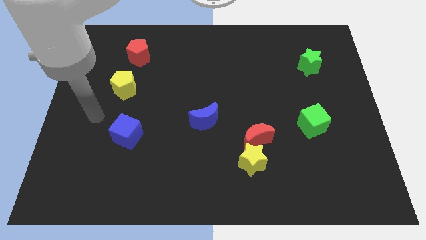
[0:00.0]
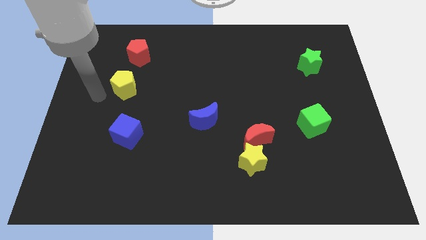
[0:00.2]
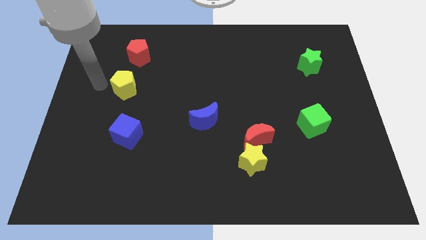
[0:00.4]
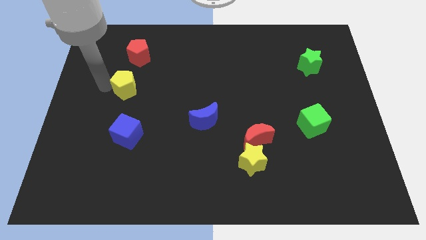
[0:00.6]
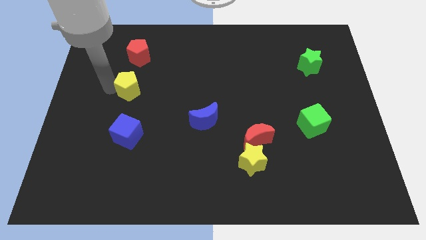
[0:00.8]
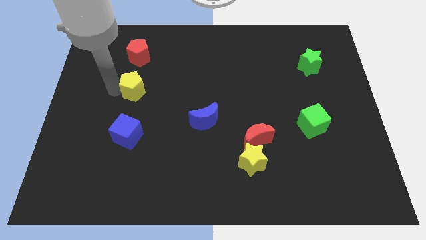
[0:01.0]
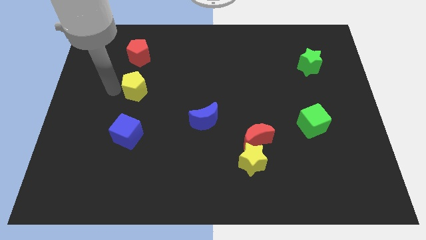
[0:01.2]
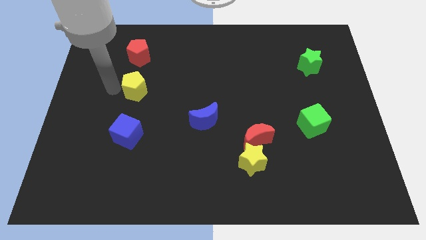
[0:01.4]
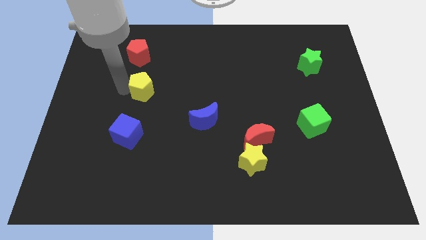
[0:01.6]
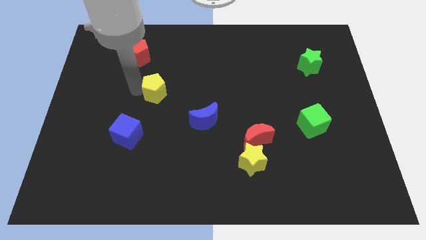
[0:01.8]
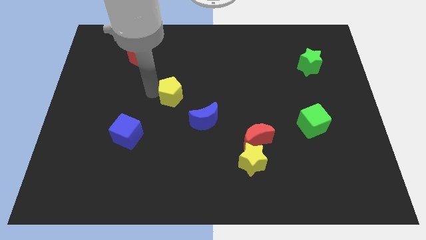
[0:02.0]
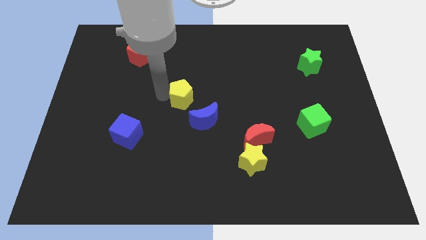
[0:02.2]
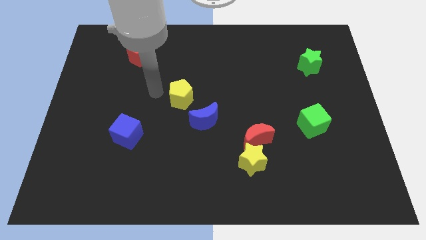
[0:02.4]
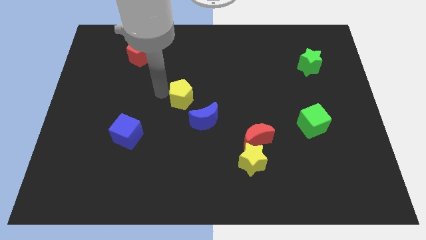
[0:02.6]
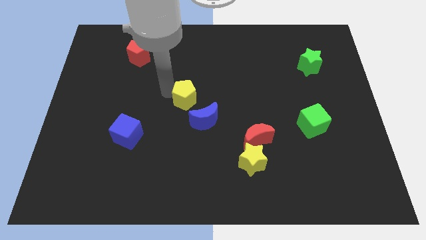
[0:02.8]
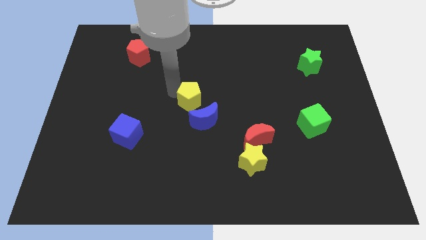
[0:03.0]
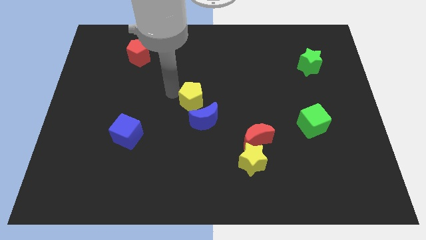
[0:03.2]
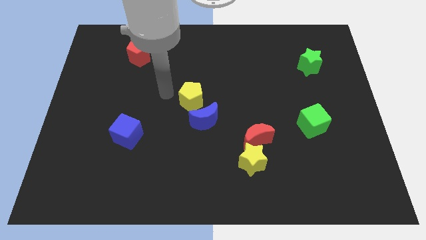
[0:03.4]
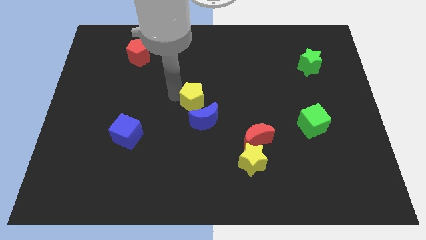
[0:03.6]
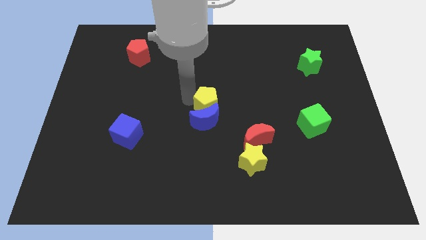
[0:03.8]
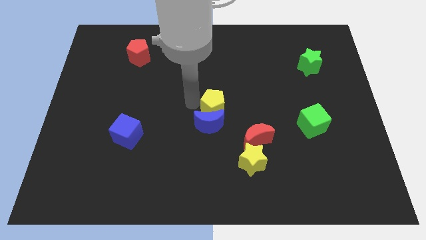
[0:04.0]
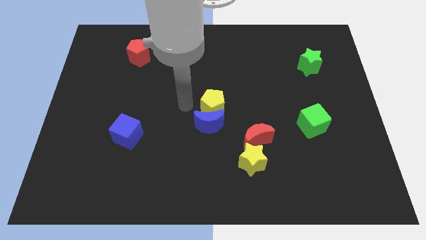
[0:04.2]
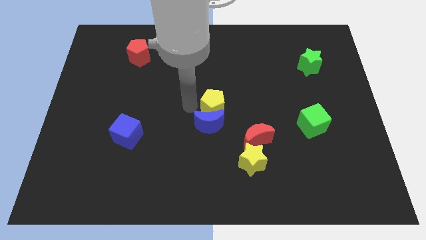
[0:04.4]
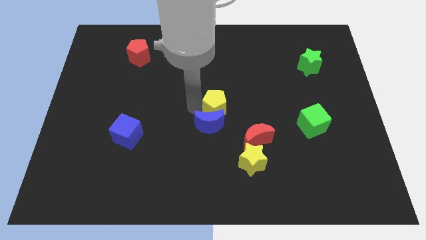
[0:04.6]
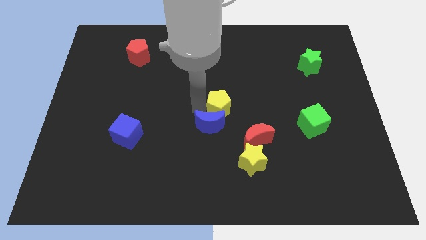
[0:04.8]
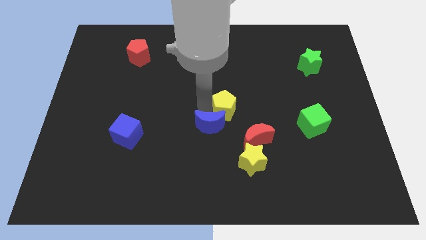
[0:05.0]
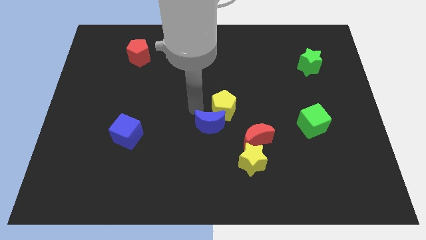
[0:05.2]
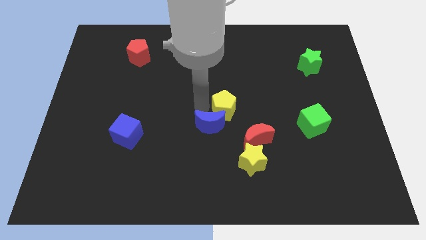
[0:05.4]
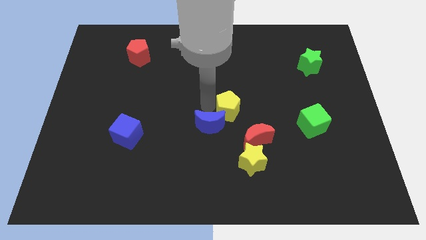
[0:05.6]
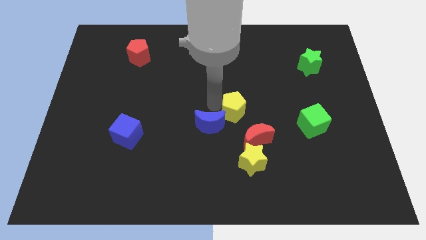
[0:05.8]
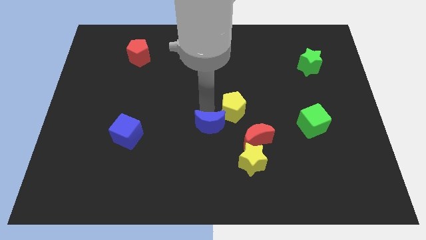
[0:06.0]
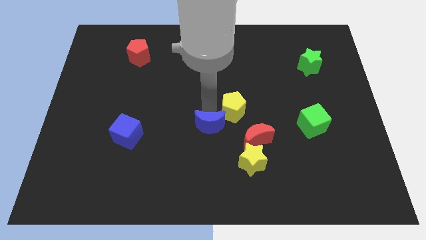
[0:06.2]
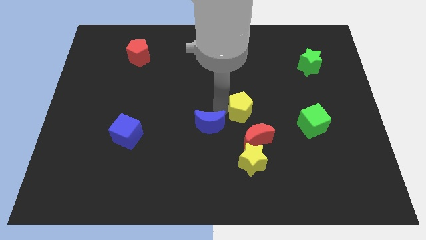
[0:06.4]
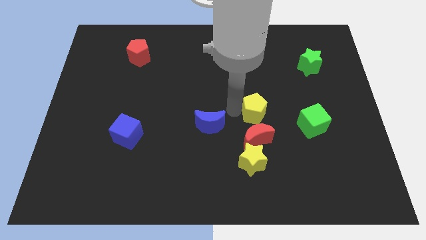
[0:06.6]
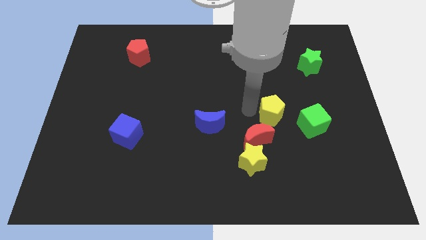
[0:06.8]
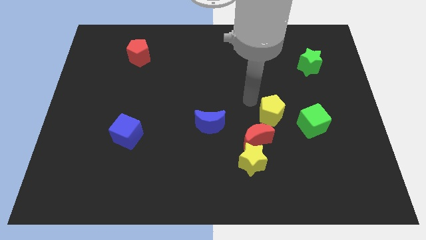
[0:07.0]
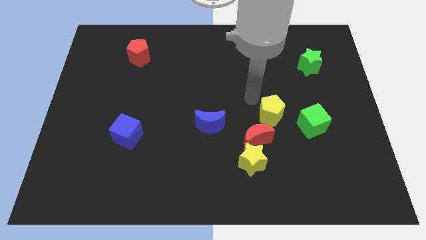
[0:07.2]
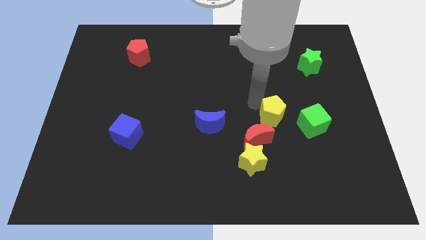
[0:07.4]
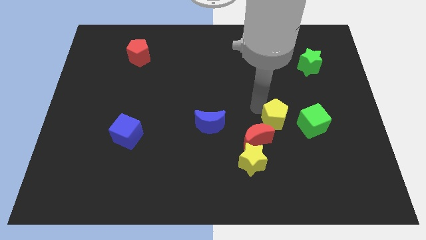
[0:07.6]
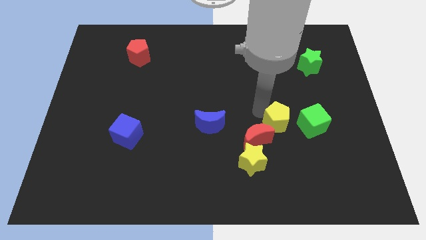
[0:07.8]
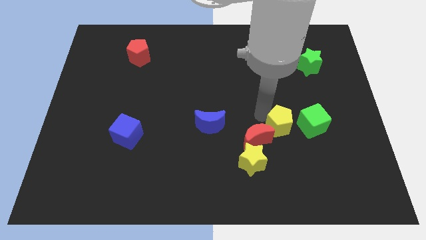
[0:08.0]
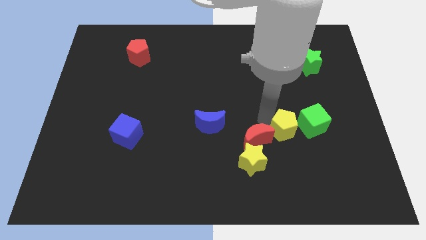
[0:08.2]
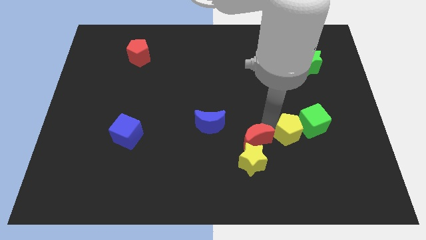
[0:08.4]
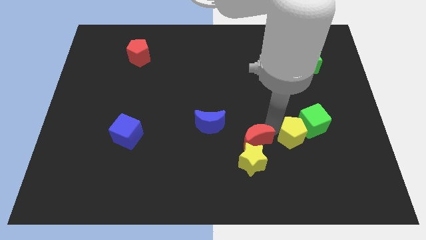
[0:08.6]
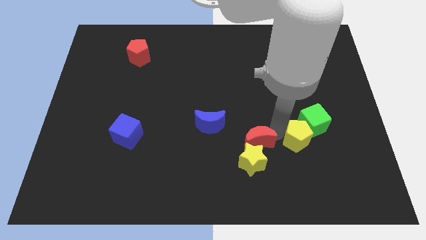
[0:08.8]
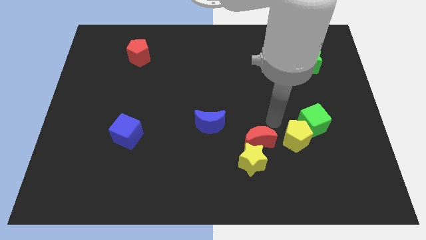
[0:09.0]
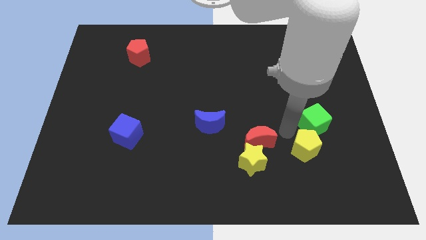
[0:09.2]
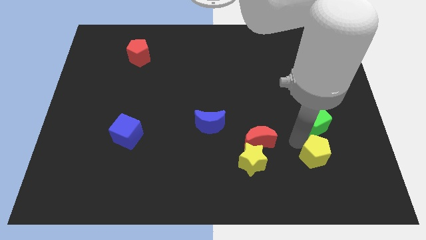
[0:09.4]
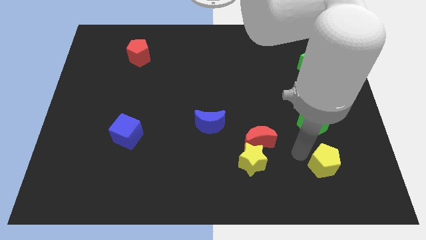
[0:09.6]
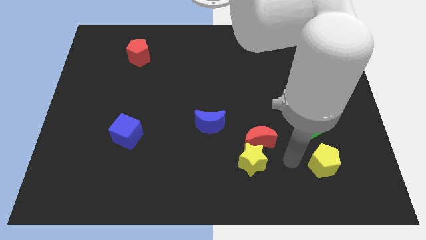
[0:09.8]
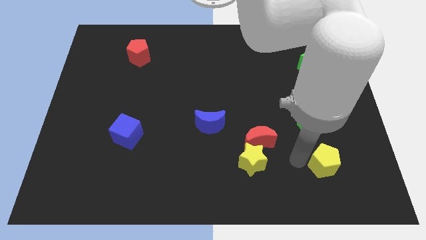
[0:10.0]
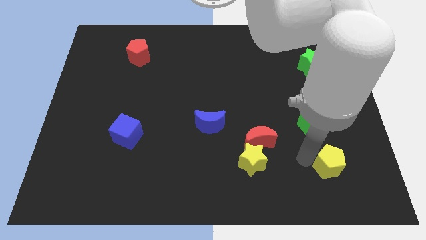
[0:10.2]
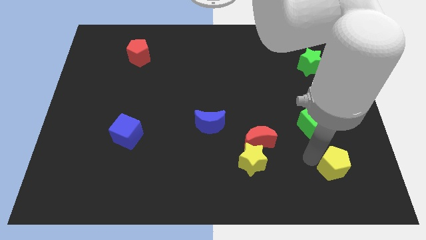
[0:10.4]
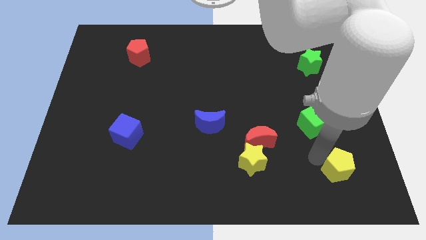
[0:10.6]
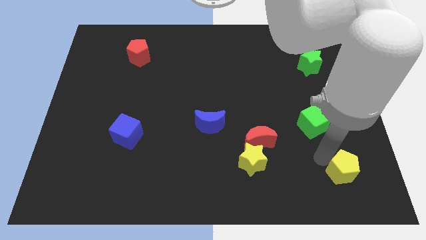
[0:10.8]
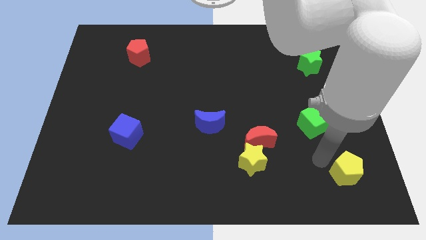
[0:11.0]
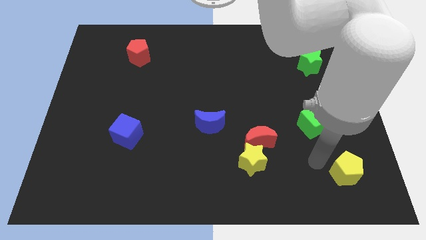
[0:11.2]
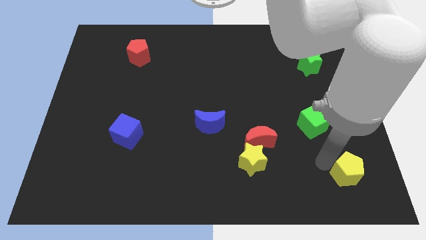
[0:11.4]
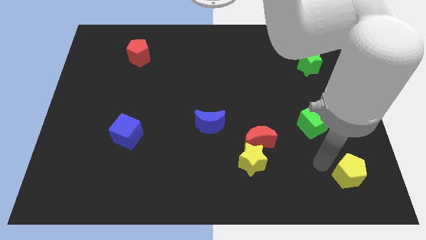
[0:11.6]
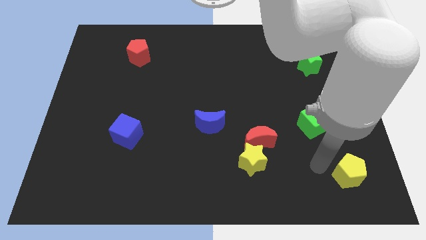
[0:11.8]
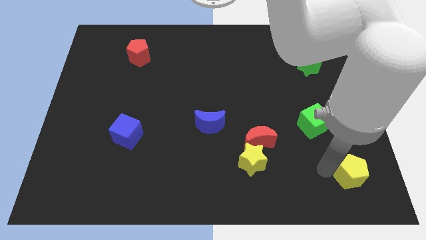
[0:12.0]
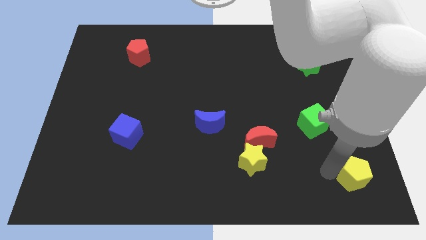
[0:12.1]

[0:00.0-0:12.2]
put the yellow pentagon to the lower right corner
